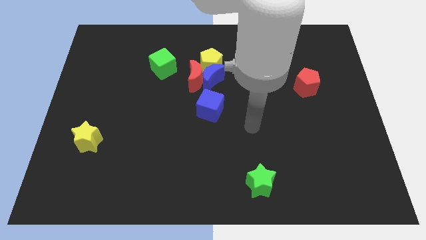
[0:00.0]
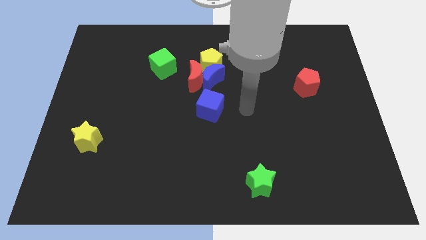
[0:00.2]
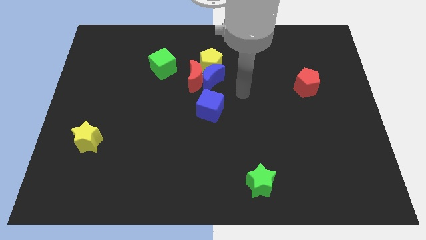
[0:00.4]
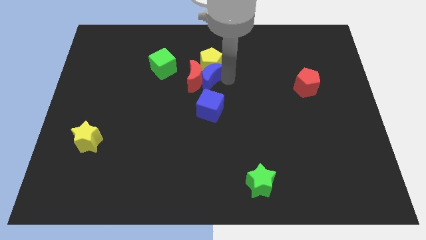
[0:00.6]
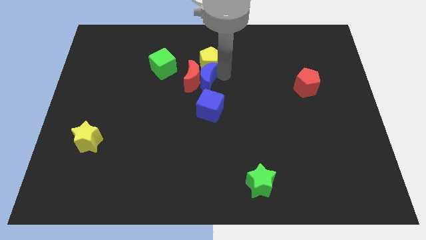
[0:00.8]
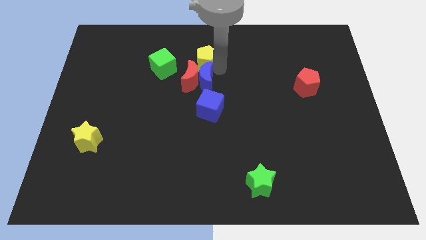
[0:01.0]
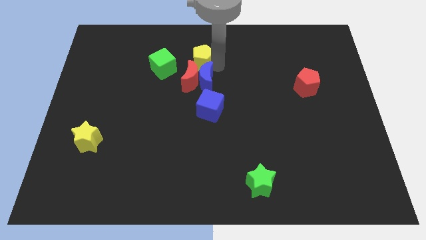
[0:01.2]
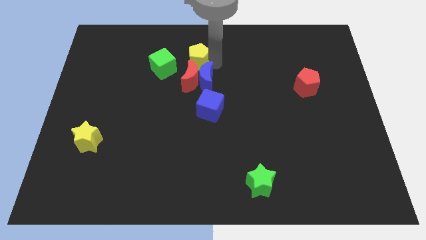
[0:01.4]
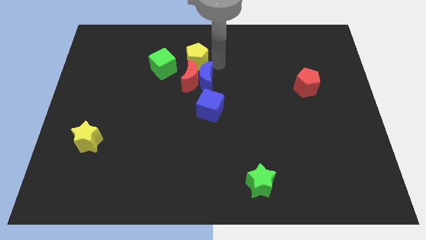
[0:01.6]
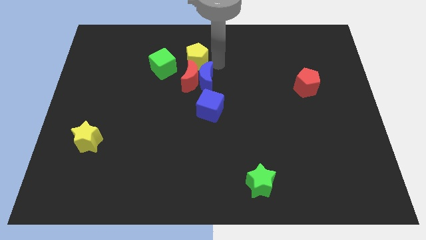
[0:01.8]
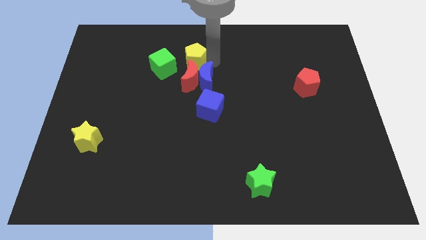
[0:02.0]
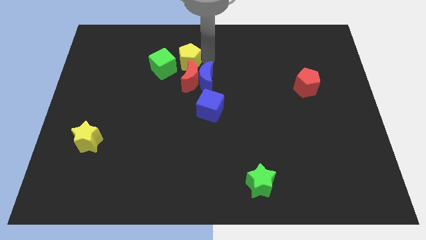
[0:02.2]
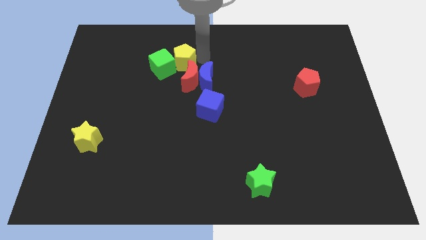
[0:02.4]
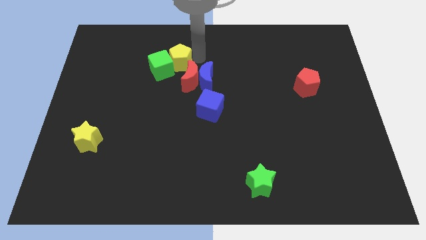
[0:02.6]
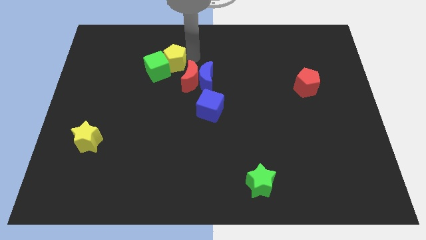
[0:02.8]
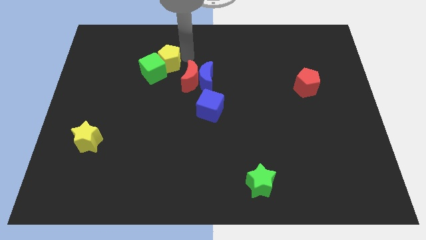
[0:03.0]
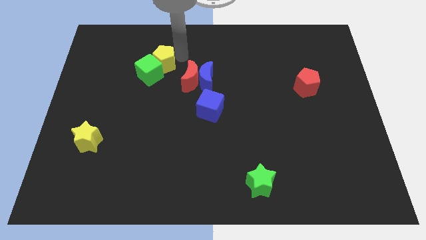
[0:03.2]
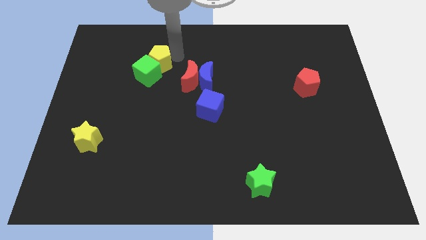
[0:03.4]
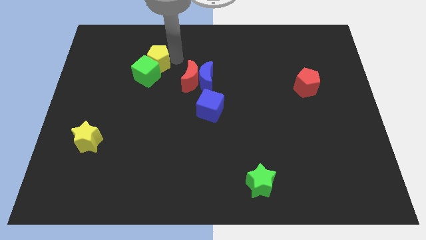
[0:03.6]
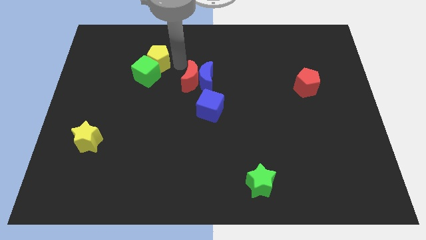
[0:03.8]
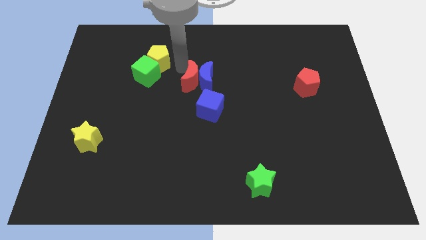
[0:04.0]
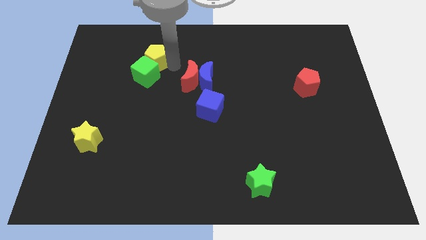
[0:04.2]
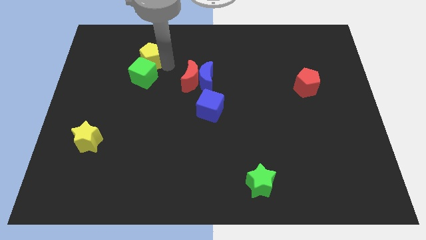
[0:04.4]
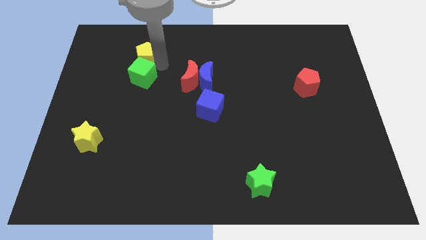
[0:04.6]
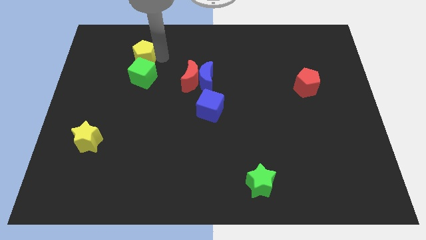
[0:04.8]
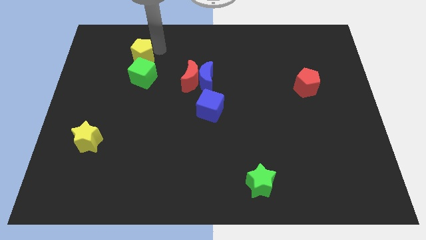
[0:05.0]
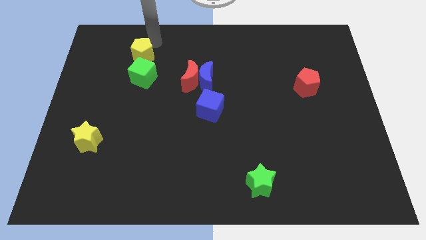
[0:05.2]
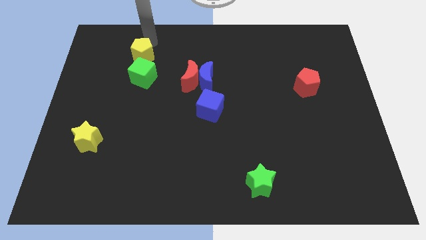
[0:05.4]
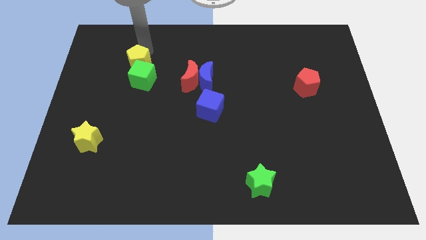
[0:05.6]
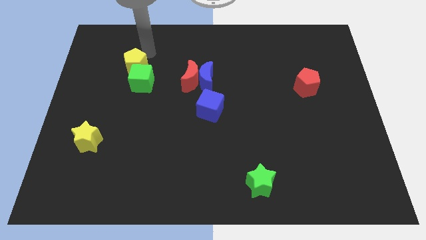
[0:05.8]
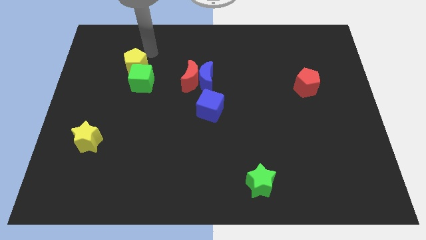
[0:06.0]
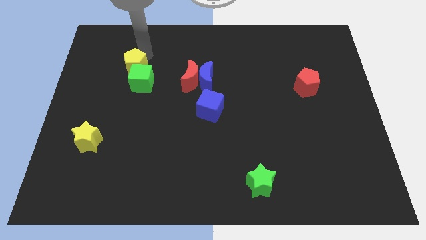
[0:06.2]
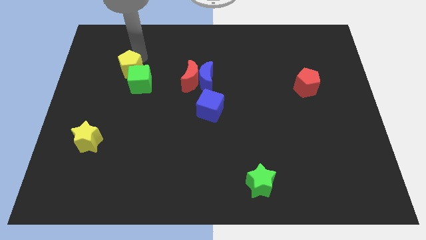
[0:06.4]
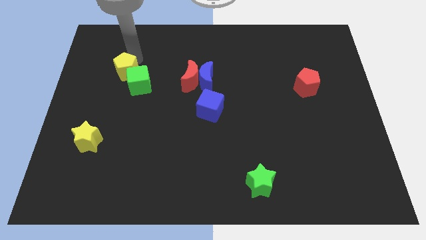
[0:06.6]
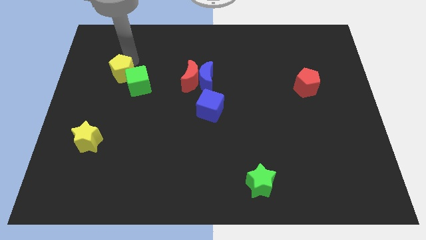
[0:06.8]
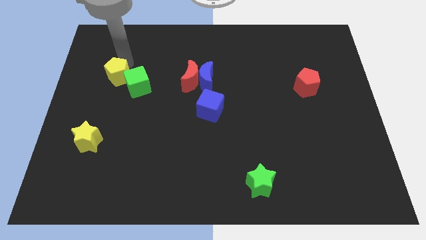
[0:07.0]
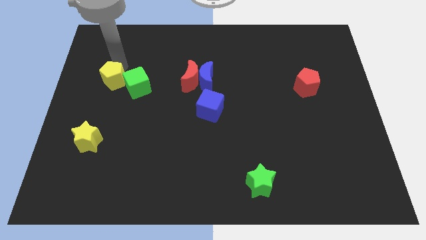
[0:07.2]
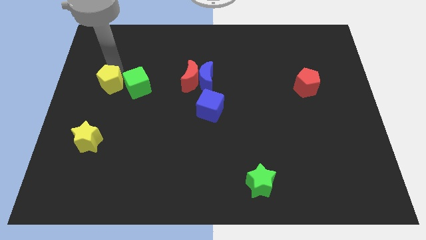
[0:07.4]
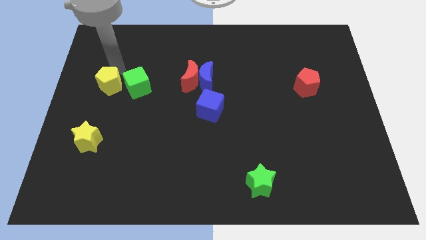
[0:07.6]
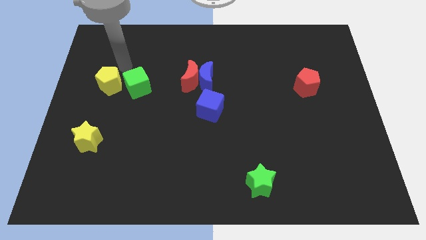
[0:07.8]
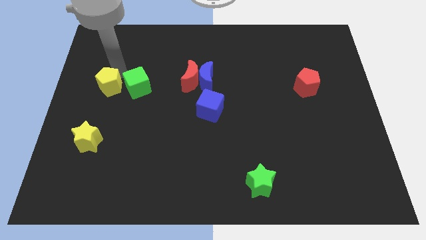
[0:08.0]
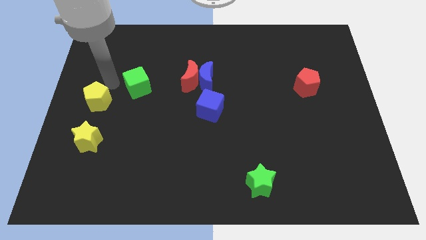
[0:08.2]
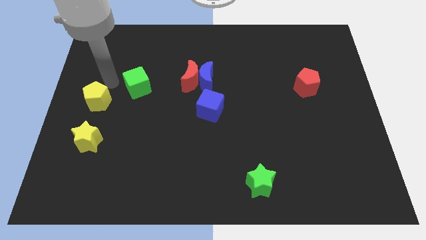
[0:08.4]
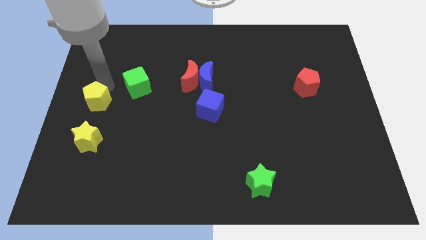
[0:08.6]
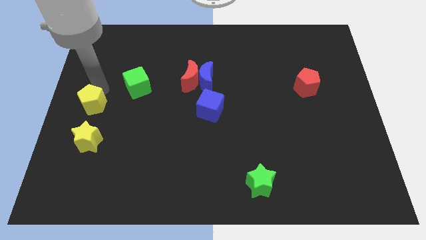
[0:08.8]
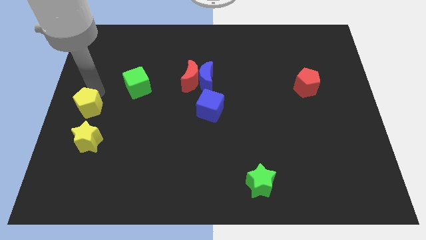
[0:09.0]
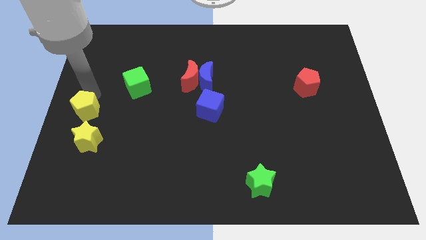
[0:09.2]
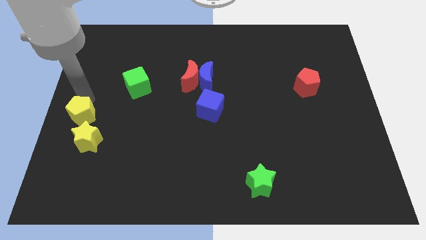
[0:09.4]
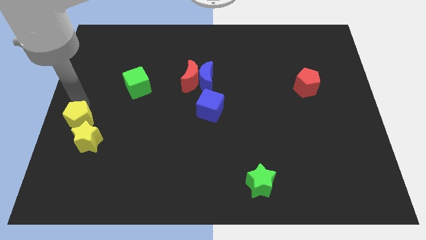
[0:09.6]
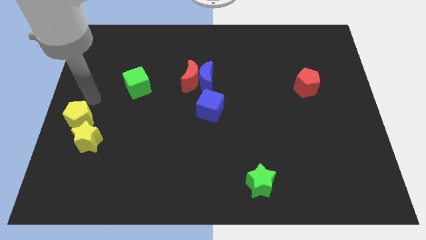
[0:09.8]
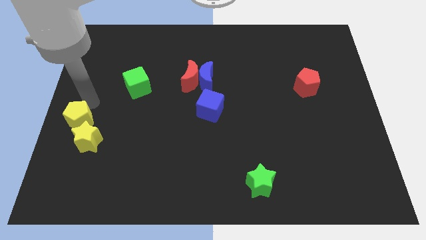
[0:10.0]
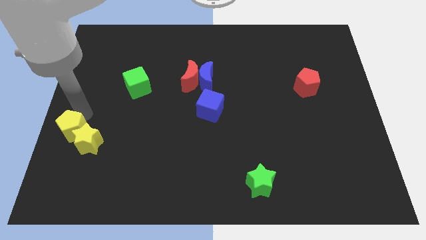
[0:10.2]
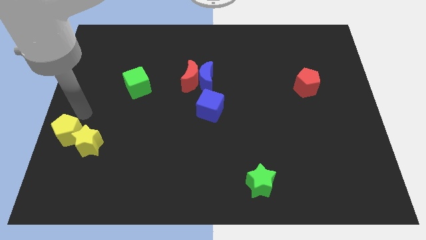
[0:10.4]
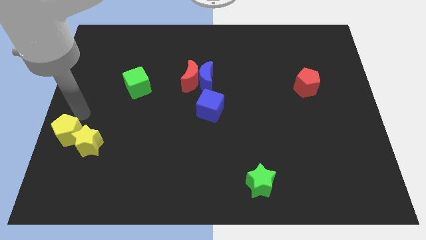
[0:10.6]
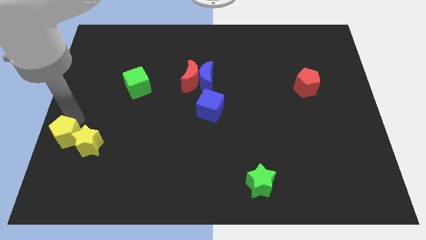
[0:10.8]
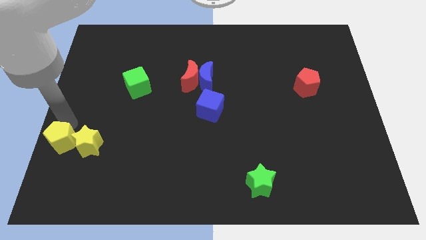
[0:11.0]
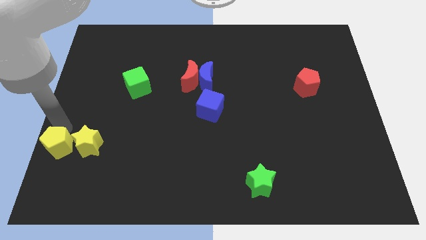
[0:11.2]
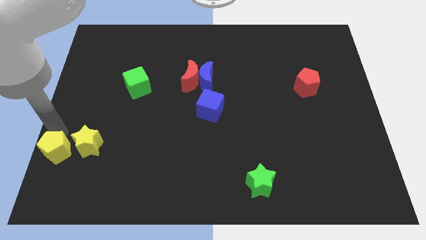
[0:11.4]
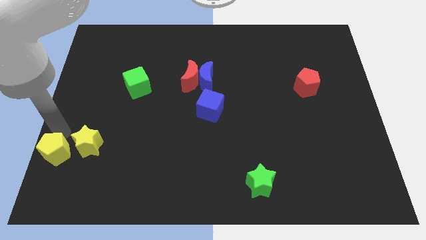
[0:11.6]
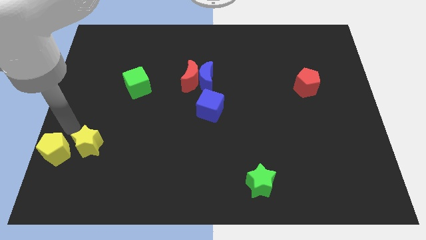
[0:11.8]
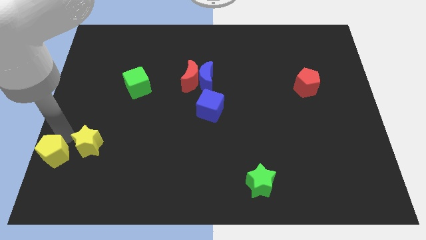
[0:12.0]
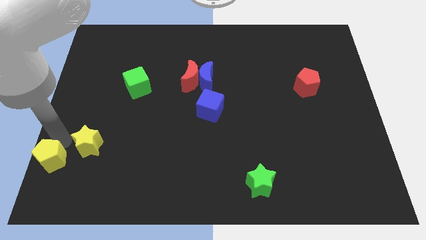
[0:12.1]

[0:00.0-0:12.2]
push the yellow pentagon to the bottom left of the board

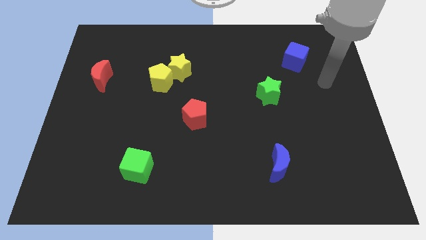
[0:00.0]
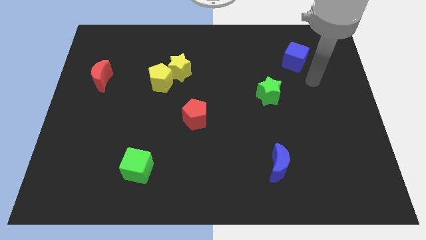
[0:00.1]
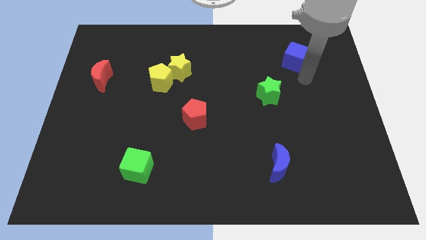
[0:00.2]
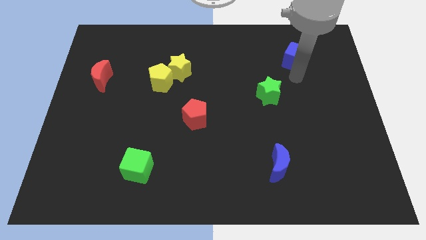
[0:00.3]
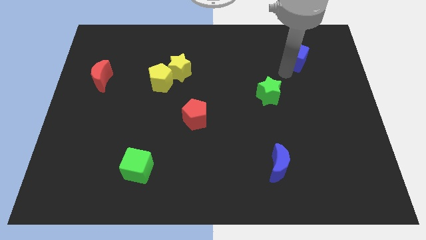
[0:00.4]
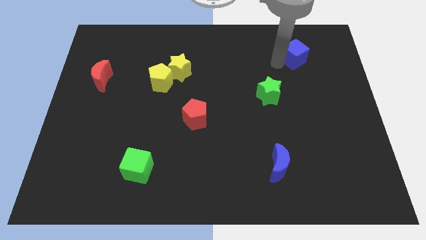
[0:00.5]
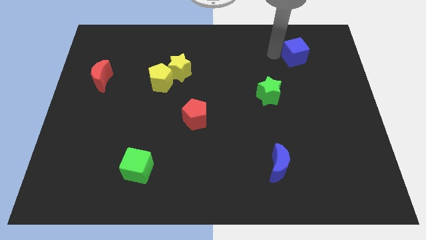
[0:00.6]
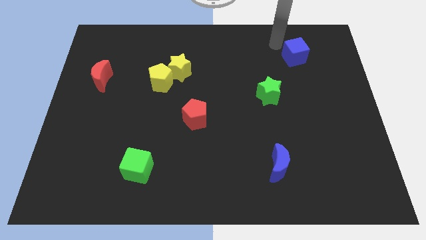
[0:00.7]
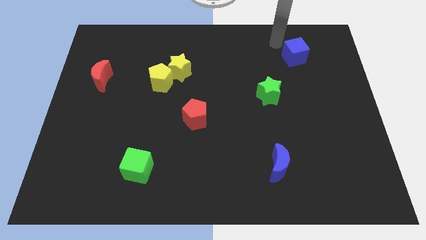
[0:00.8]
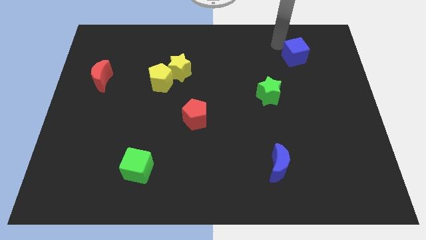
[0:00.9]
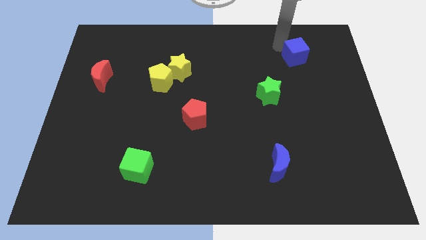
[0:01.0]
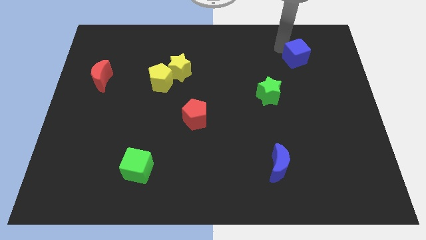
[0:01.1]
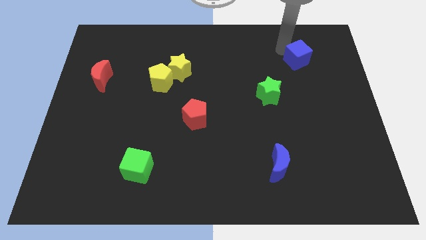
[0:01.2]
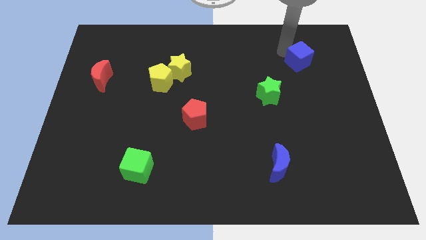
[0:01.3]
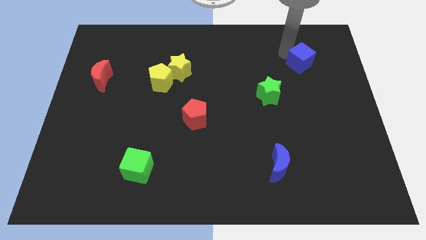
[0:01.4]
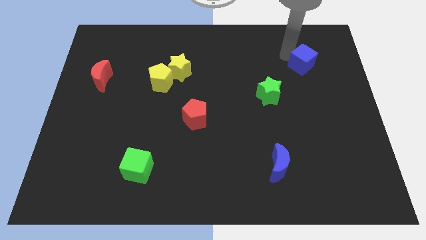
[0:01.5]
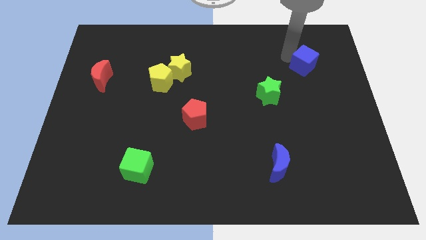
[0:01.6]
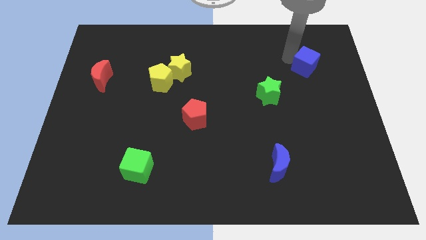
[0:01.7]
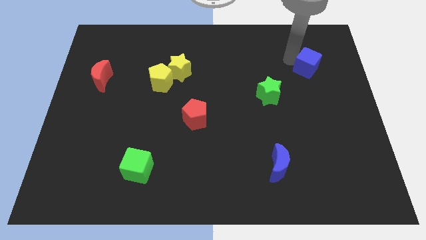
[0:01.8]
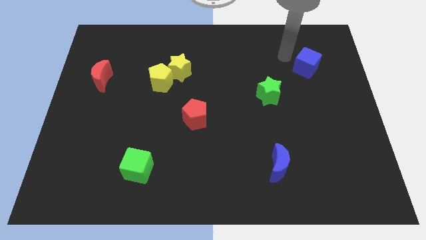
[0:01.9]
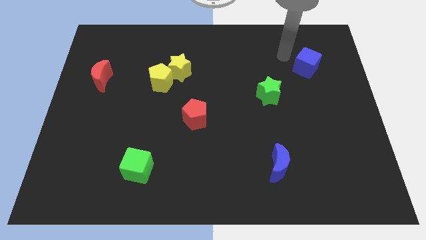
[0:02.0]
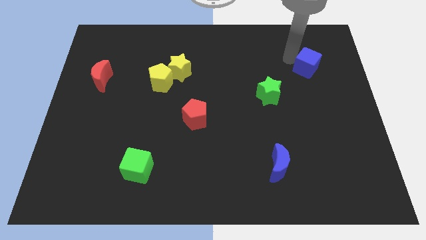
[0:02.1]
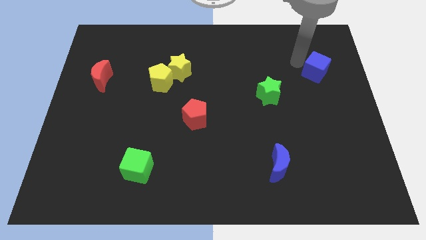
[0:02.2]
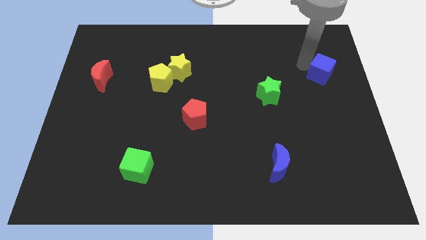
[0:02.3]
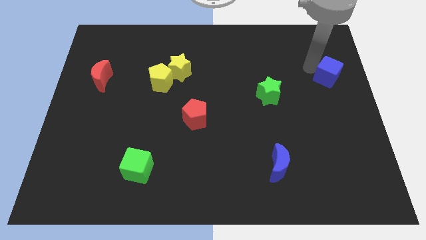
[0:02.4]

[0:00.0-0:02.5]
put the blue cube to the right side
